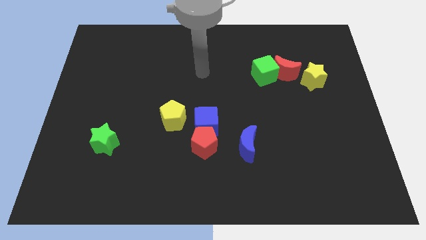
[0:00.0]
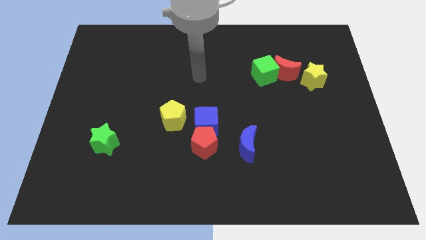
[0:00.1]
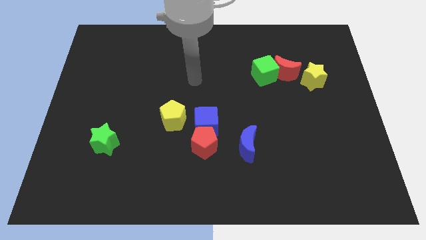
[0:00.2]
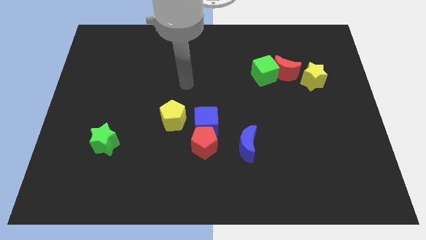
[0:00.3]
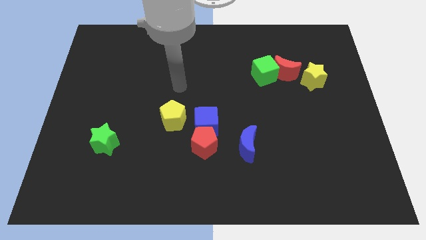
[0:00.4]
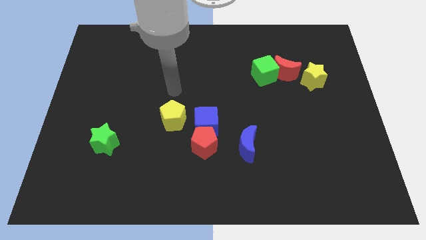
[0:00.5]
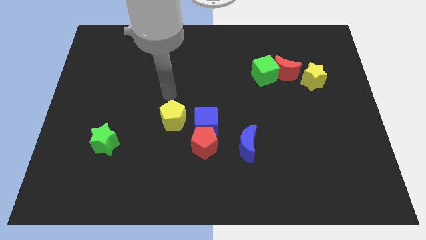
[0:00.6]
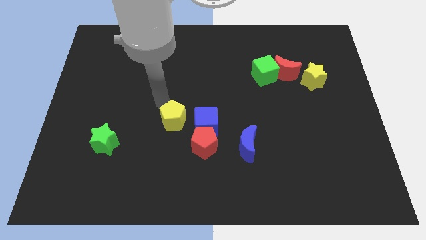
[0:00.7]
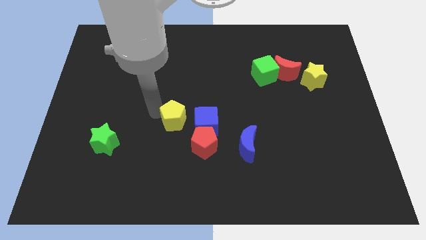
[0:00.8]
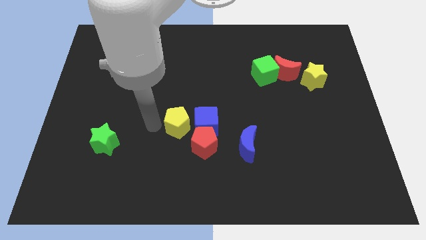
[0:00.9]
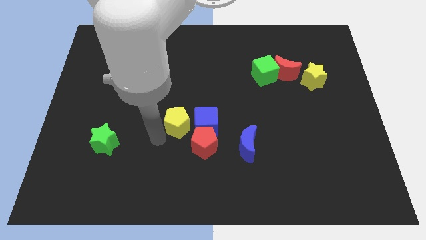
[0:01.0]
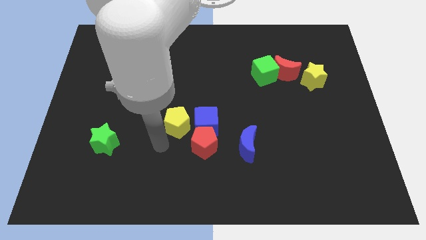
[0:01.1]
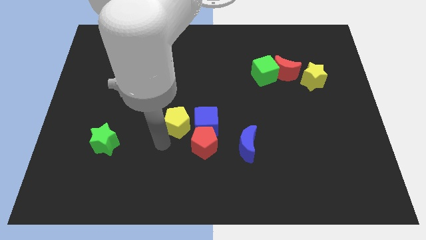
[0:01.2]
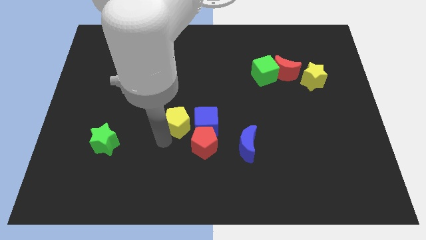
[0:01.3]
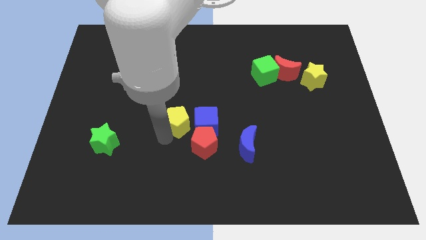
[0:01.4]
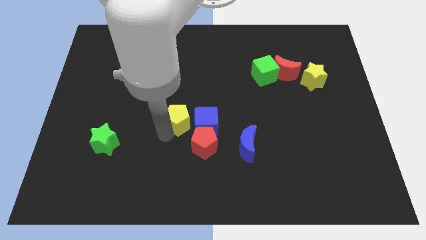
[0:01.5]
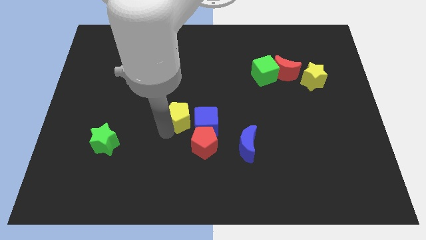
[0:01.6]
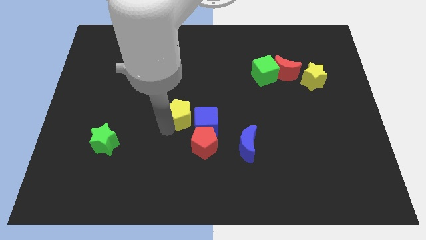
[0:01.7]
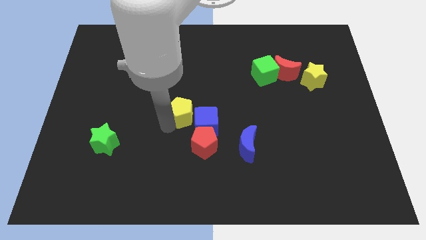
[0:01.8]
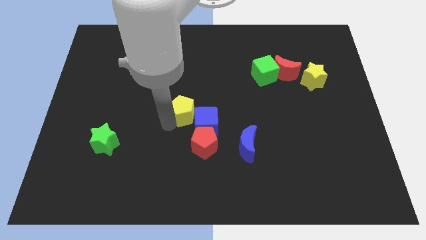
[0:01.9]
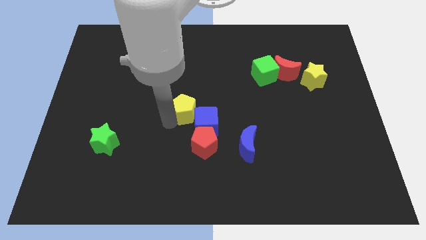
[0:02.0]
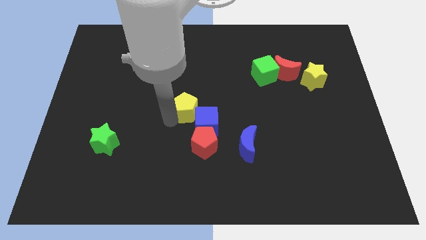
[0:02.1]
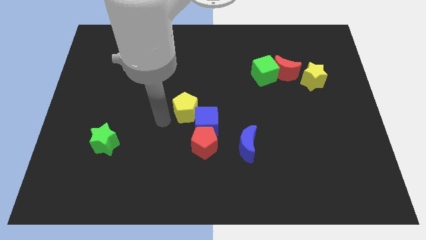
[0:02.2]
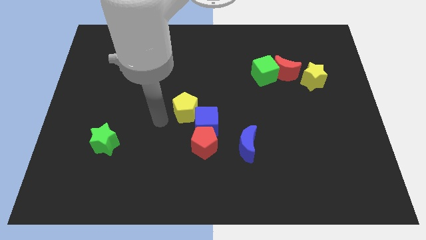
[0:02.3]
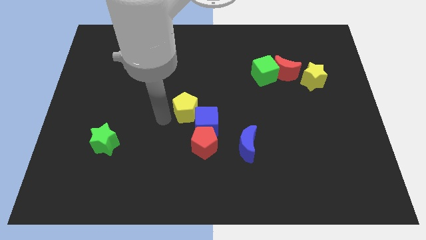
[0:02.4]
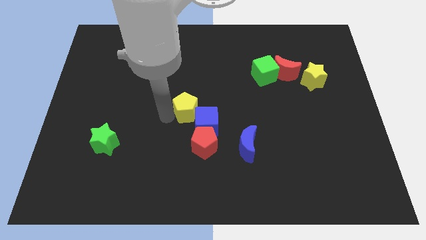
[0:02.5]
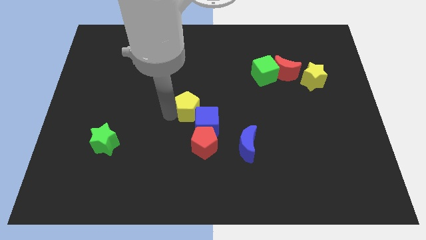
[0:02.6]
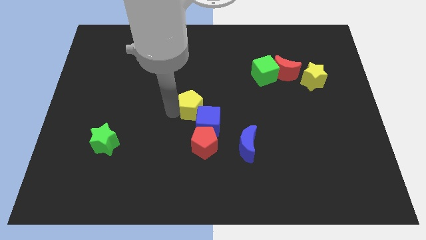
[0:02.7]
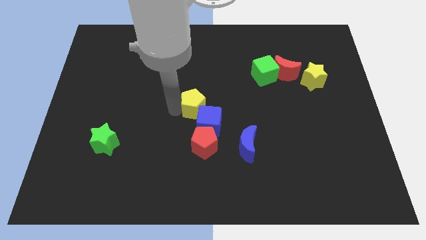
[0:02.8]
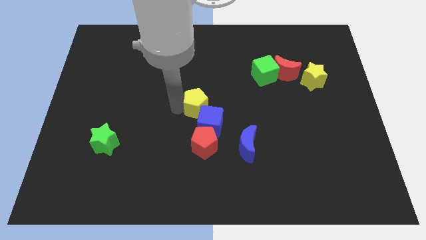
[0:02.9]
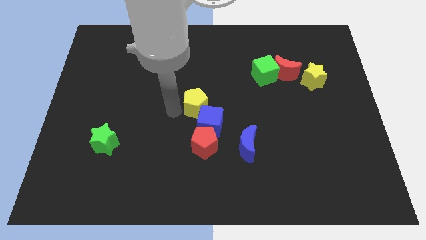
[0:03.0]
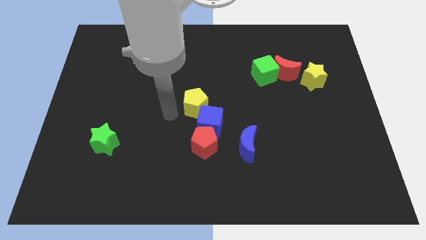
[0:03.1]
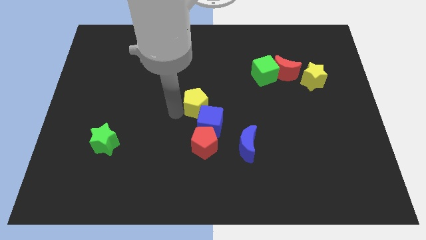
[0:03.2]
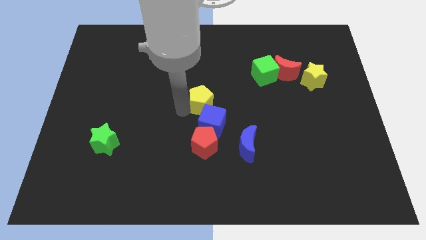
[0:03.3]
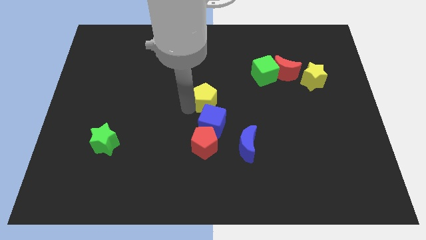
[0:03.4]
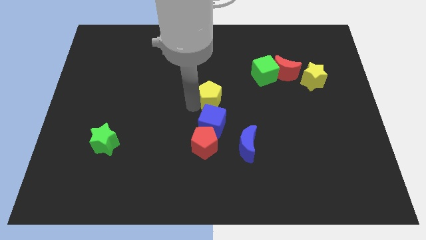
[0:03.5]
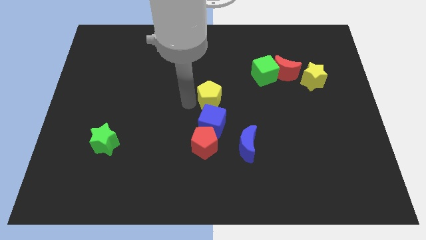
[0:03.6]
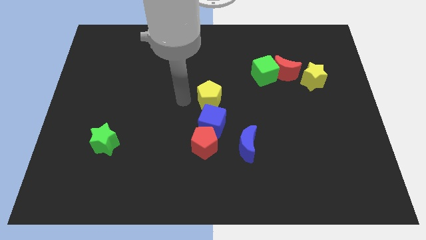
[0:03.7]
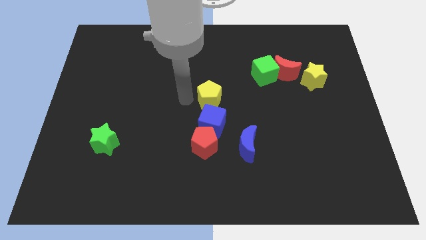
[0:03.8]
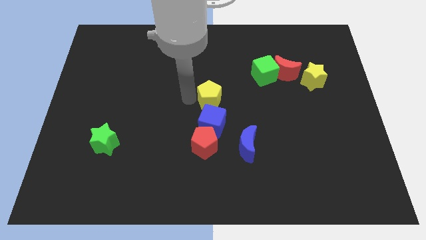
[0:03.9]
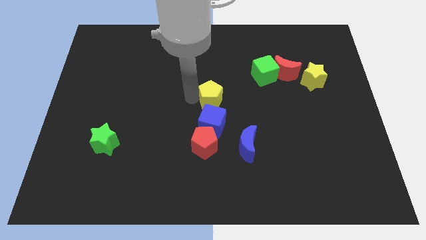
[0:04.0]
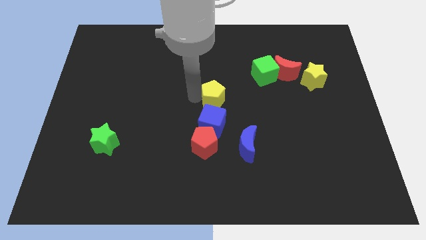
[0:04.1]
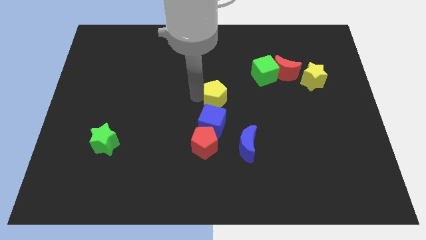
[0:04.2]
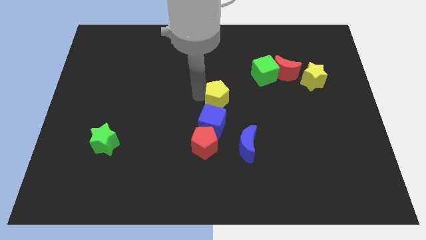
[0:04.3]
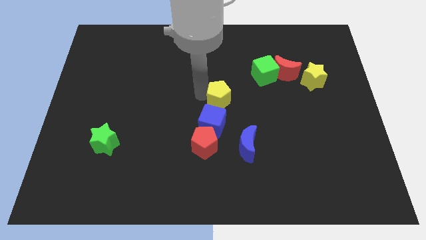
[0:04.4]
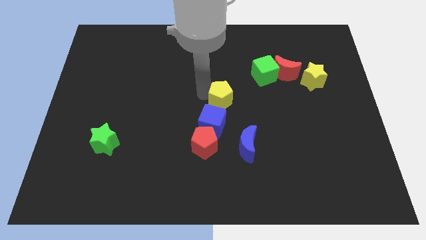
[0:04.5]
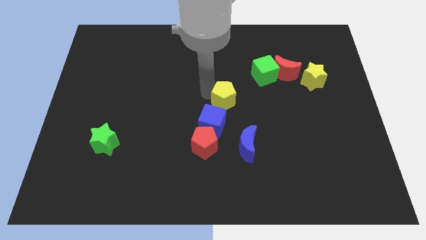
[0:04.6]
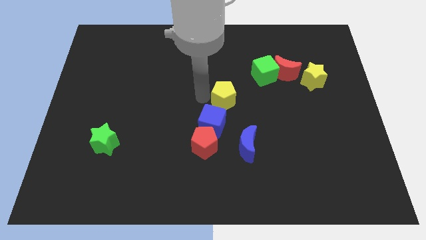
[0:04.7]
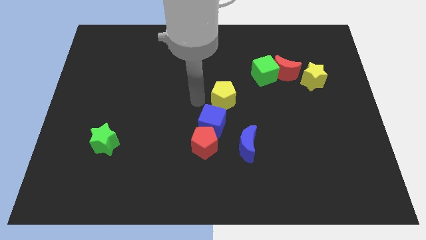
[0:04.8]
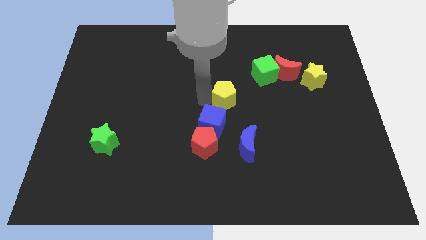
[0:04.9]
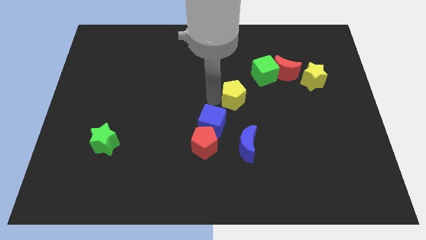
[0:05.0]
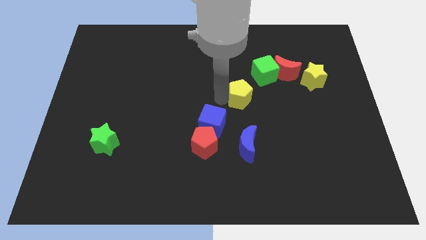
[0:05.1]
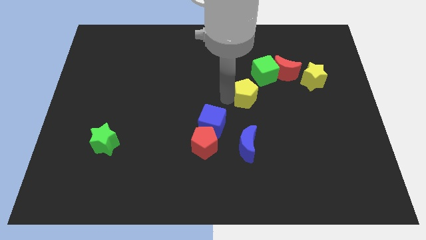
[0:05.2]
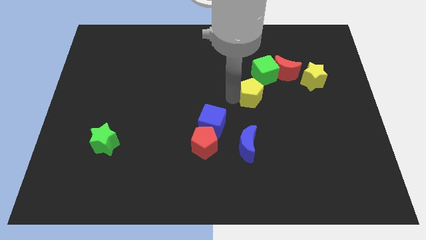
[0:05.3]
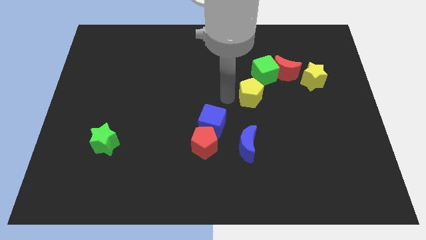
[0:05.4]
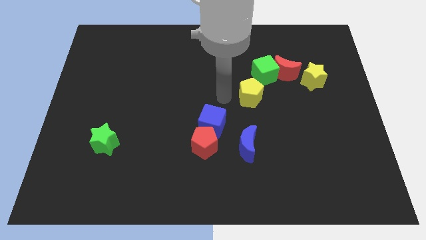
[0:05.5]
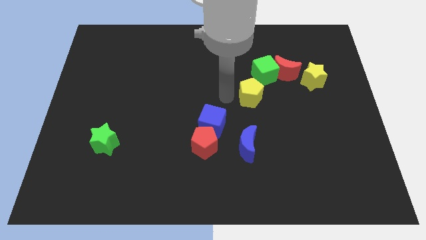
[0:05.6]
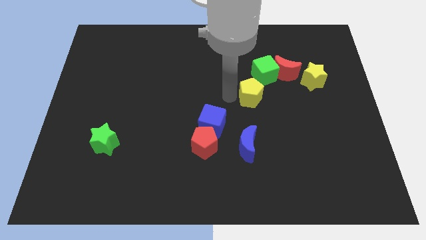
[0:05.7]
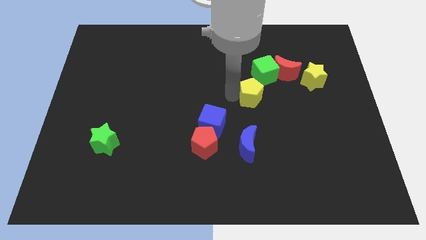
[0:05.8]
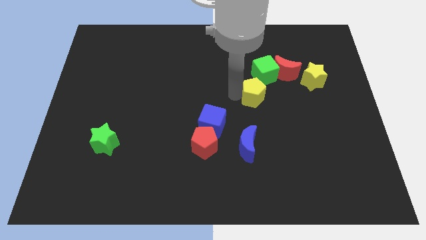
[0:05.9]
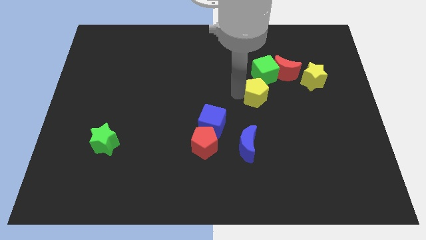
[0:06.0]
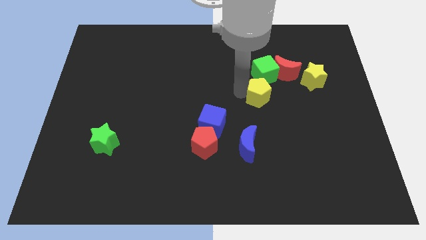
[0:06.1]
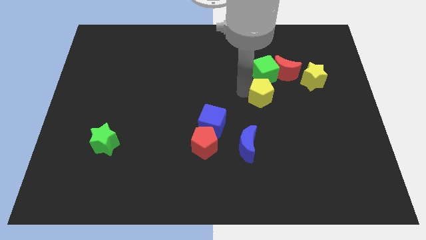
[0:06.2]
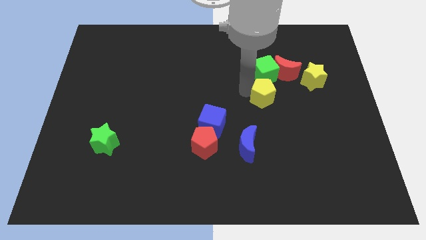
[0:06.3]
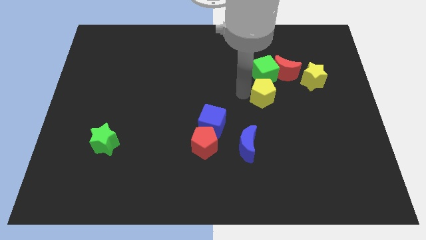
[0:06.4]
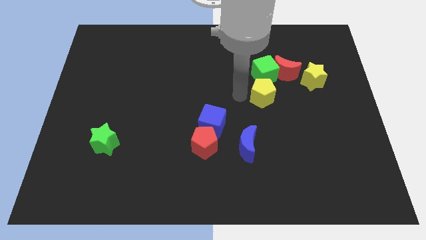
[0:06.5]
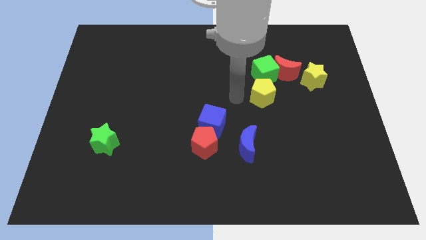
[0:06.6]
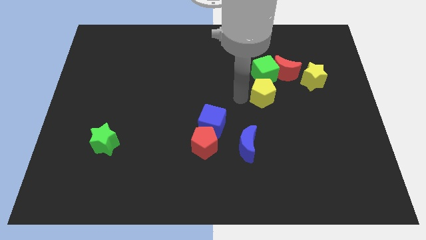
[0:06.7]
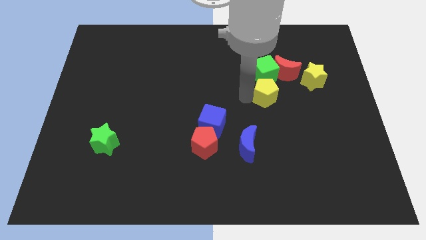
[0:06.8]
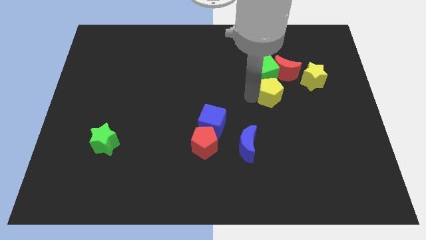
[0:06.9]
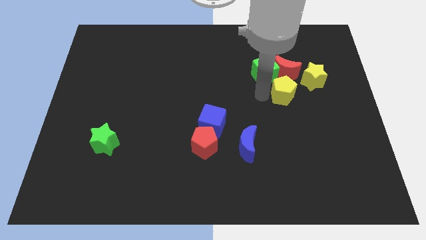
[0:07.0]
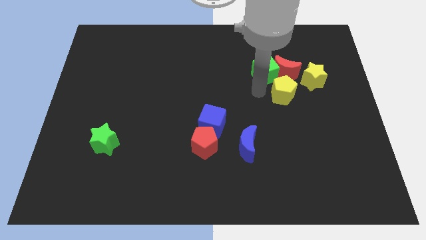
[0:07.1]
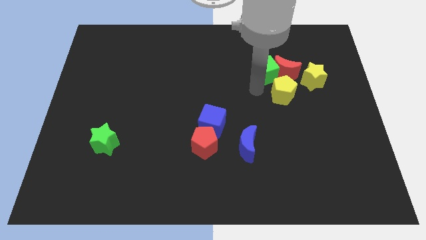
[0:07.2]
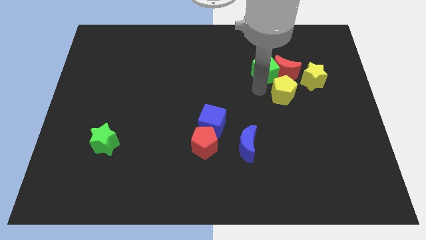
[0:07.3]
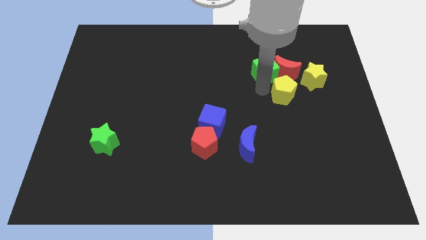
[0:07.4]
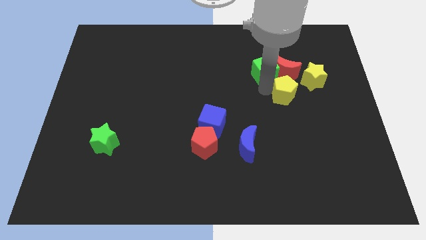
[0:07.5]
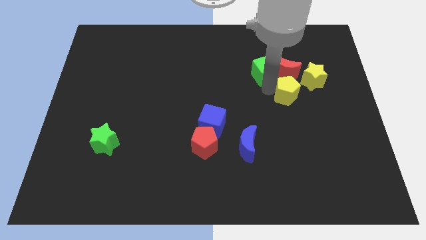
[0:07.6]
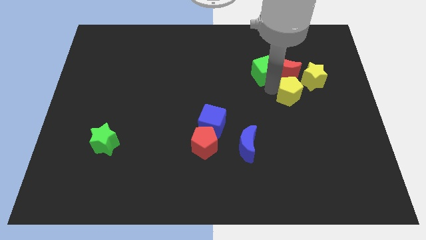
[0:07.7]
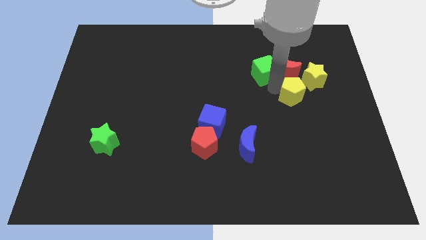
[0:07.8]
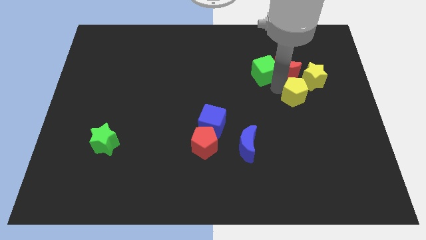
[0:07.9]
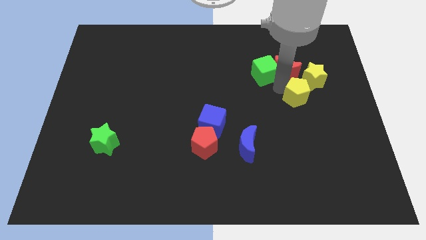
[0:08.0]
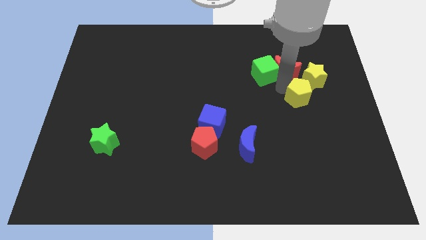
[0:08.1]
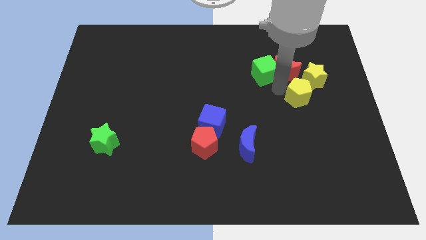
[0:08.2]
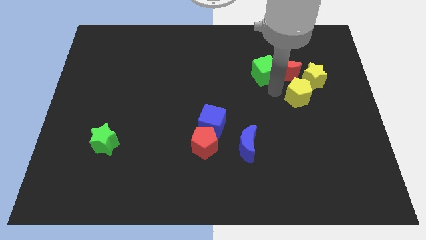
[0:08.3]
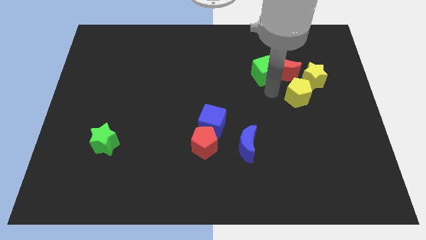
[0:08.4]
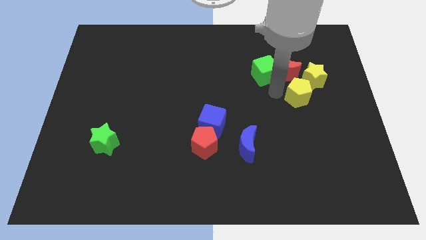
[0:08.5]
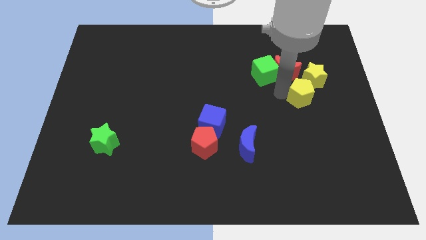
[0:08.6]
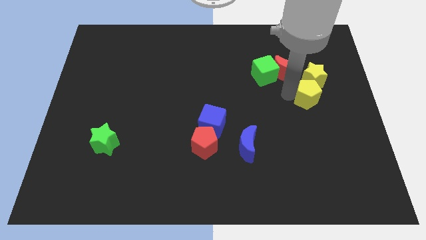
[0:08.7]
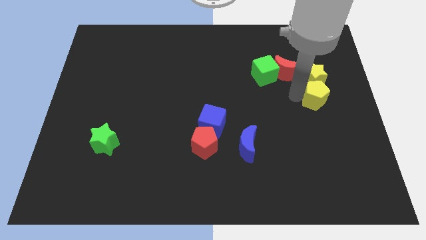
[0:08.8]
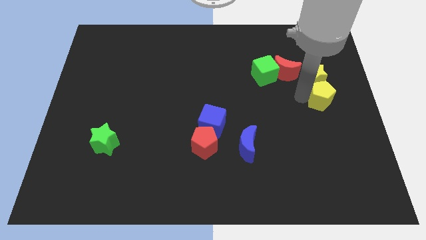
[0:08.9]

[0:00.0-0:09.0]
move the yellow pentagon to the right side
